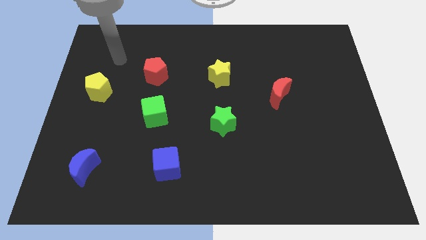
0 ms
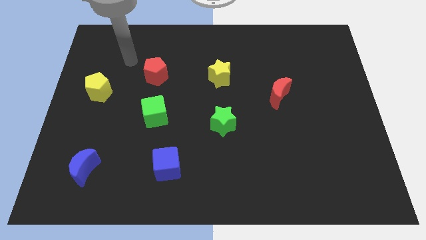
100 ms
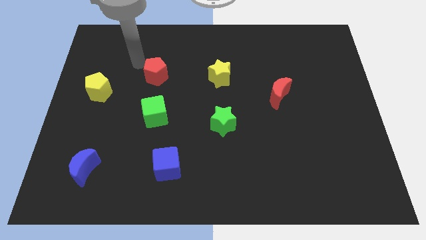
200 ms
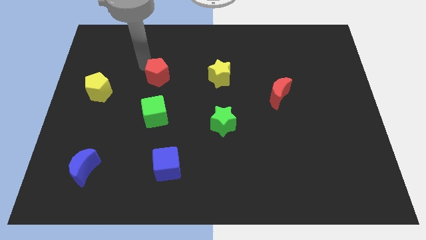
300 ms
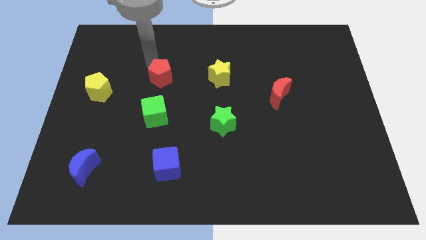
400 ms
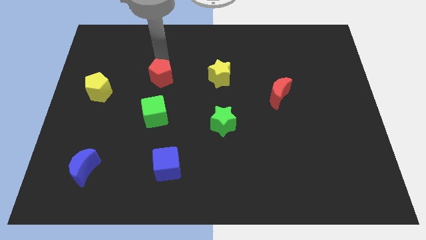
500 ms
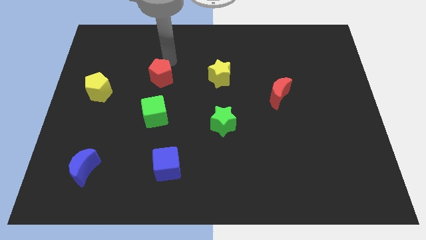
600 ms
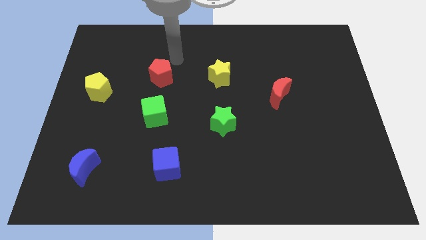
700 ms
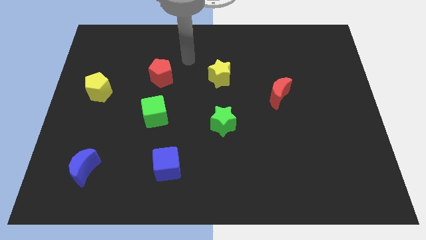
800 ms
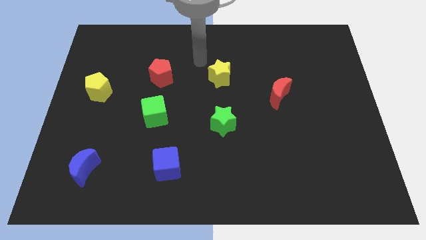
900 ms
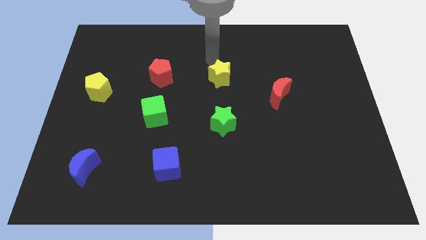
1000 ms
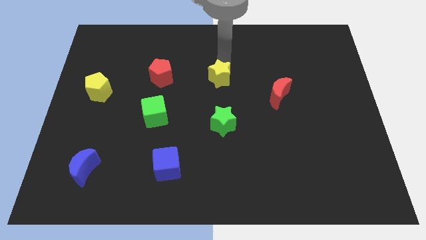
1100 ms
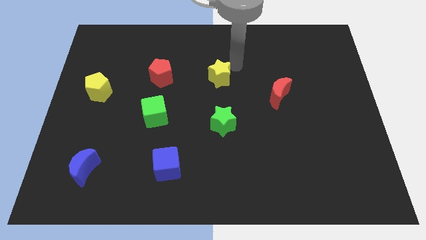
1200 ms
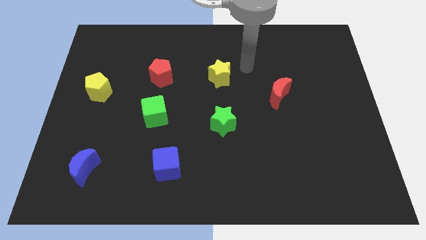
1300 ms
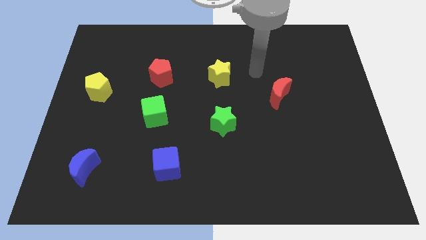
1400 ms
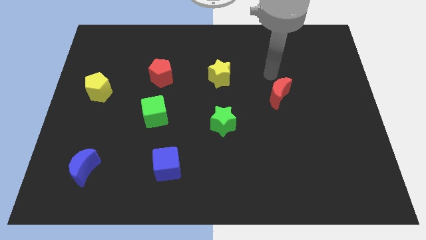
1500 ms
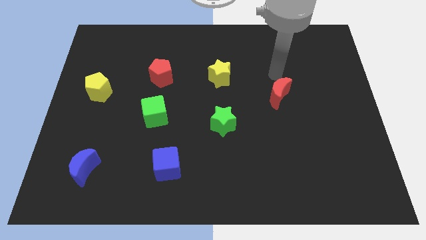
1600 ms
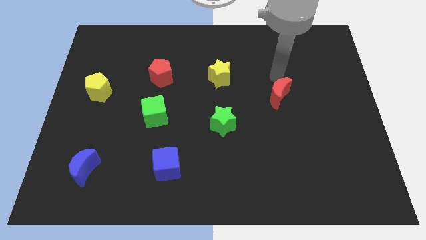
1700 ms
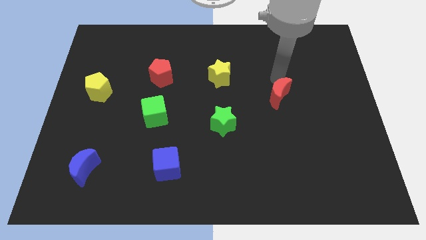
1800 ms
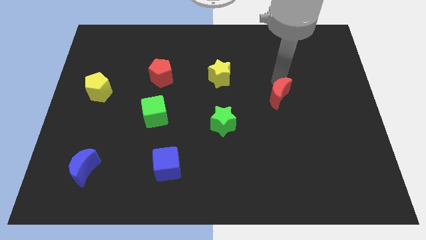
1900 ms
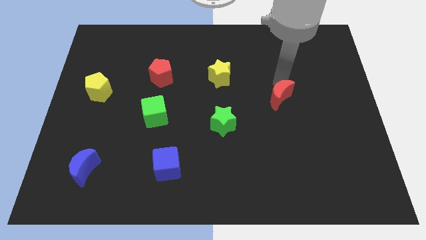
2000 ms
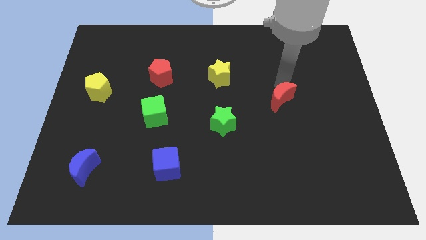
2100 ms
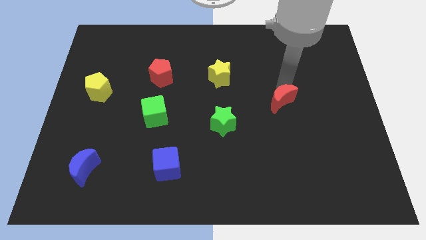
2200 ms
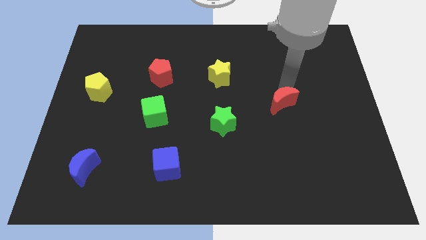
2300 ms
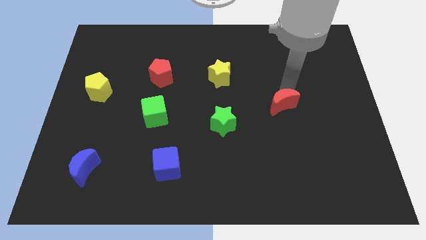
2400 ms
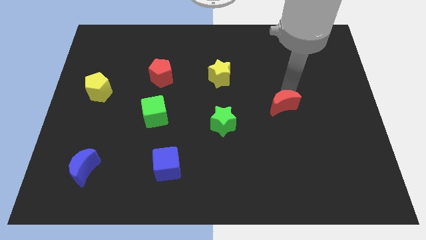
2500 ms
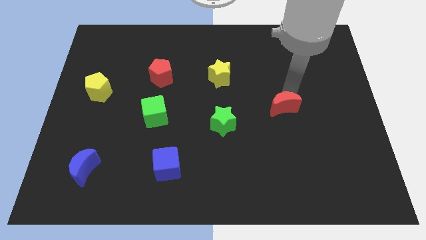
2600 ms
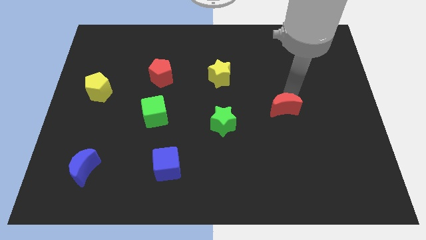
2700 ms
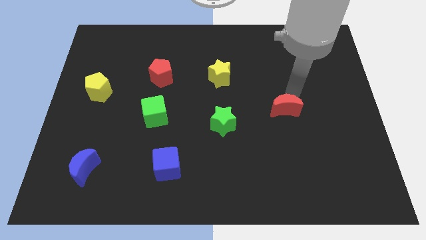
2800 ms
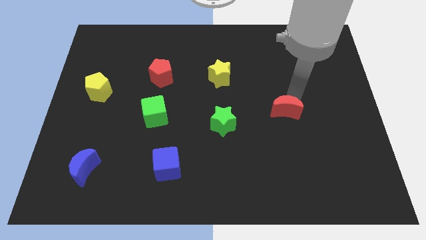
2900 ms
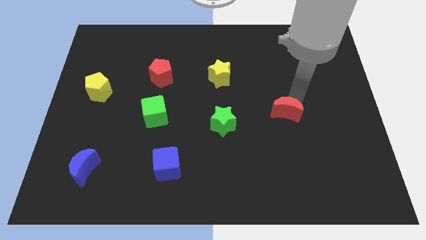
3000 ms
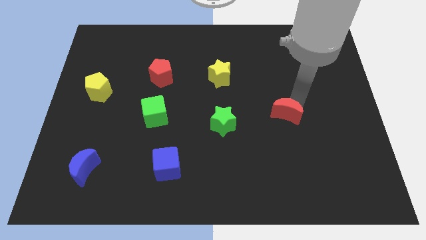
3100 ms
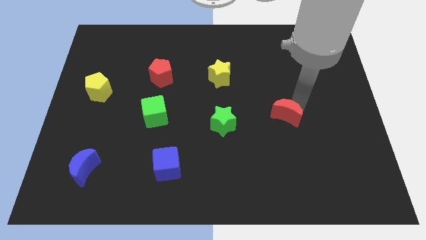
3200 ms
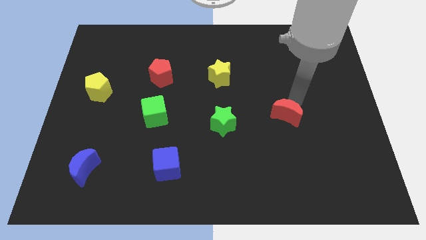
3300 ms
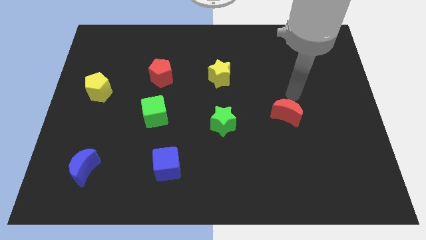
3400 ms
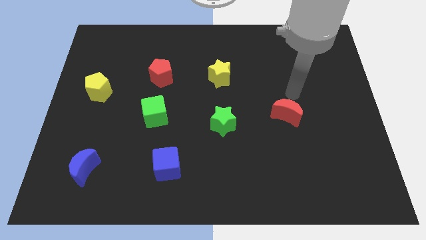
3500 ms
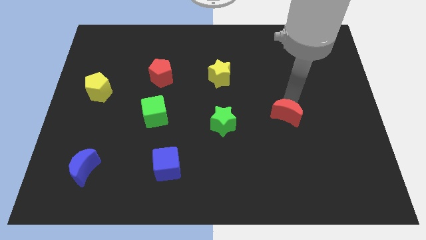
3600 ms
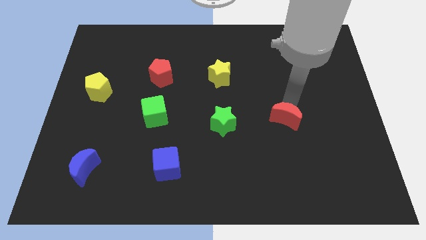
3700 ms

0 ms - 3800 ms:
move the red moon somewhat down

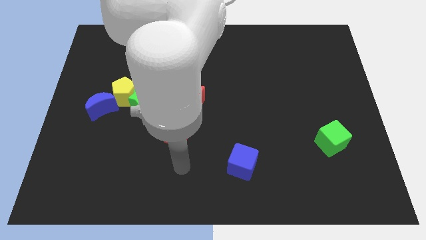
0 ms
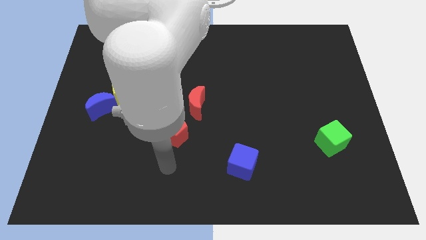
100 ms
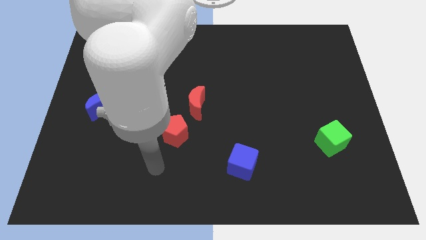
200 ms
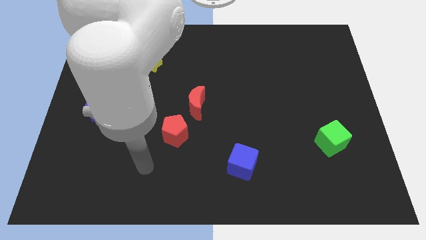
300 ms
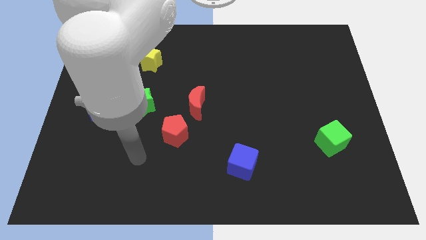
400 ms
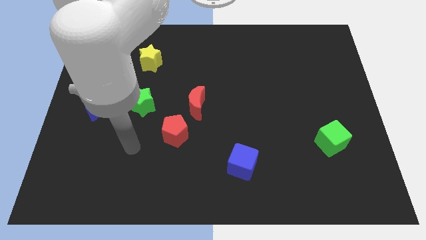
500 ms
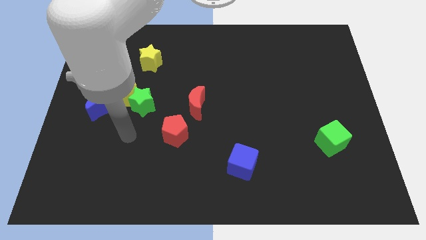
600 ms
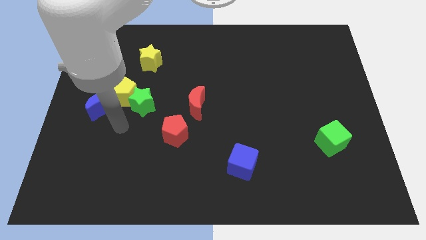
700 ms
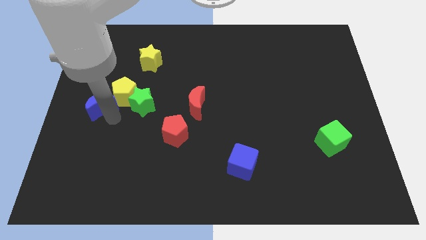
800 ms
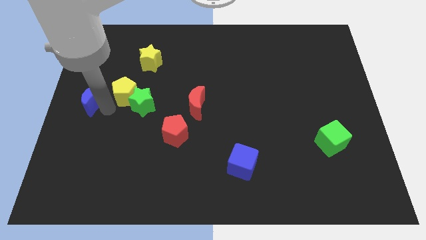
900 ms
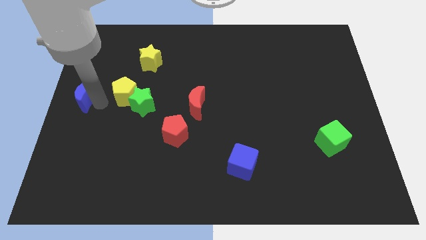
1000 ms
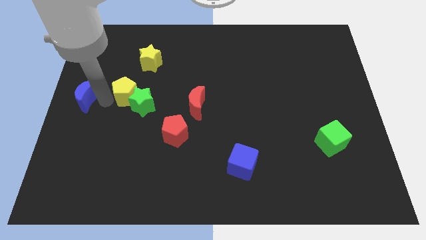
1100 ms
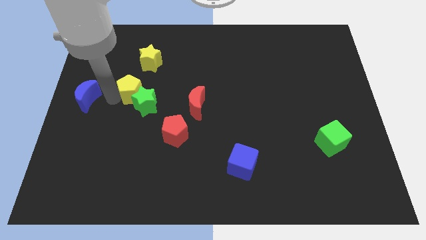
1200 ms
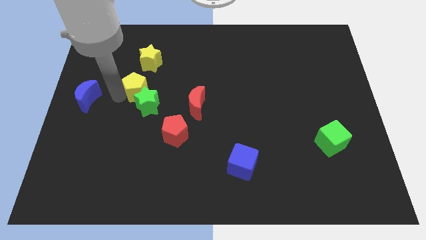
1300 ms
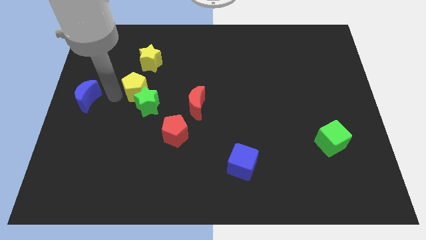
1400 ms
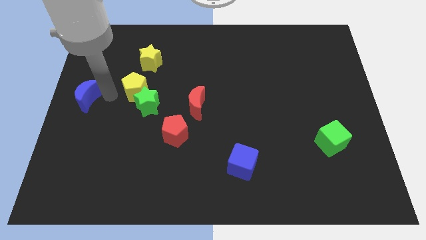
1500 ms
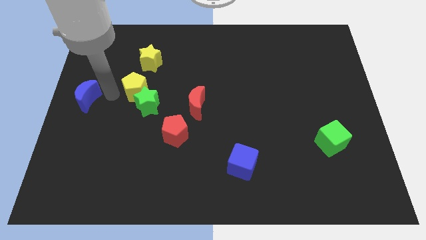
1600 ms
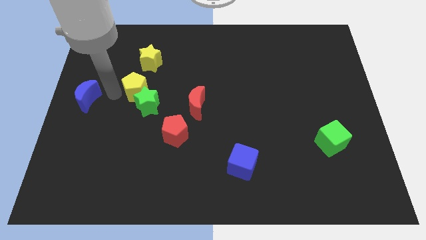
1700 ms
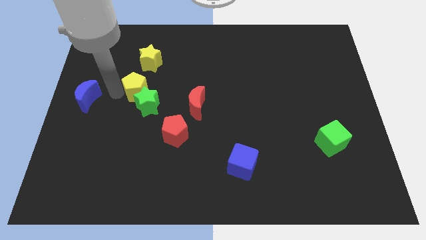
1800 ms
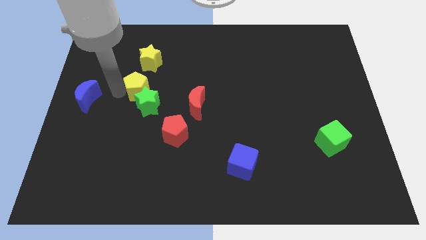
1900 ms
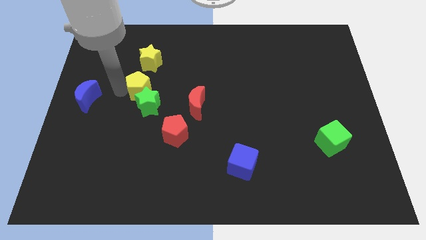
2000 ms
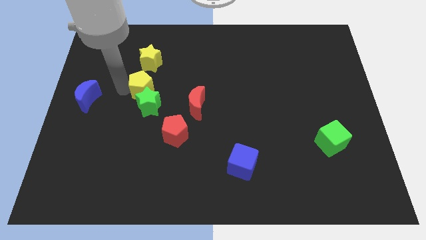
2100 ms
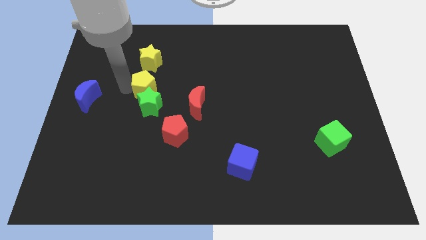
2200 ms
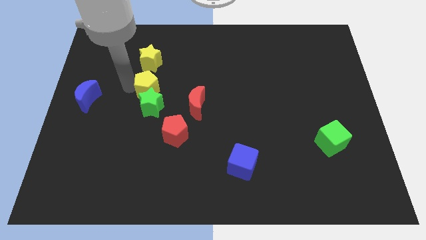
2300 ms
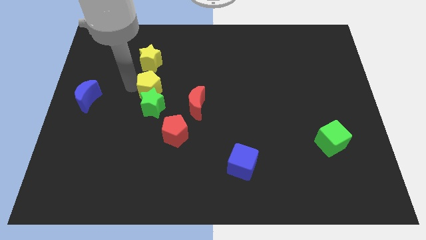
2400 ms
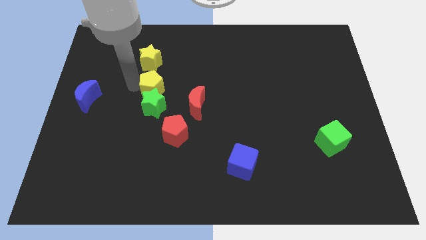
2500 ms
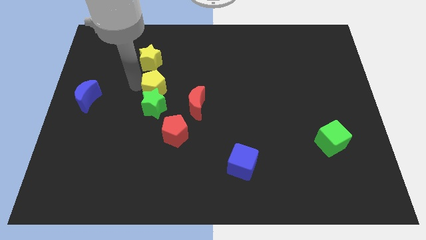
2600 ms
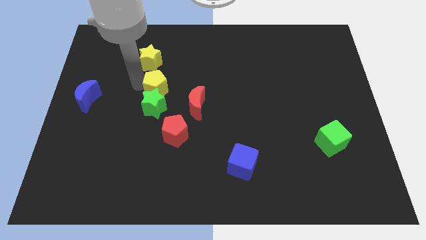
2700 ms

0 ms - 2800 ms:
push the yellow pentagon a little right

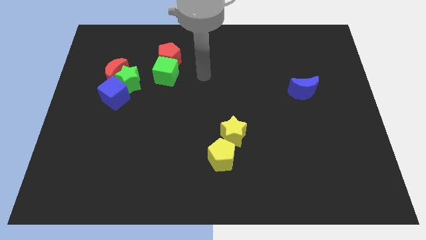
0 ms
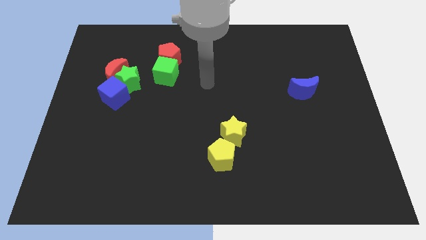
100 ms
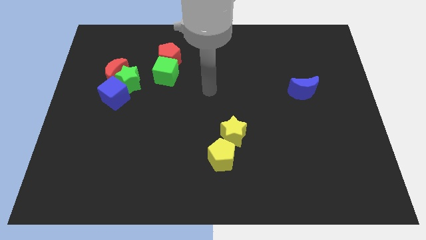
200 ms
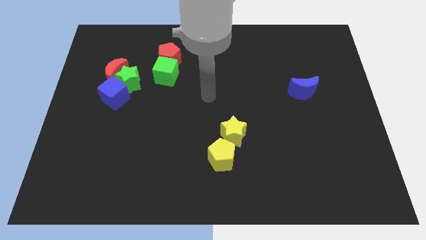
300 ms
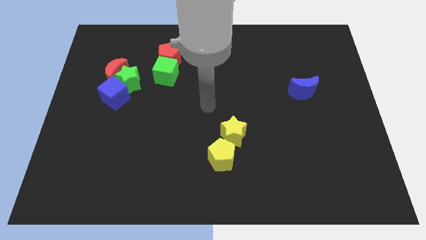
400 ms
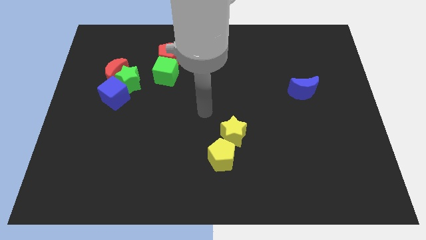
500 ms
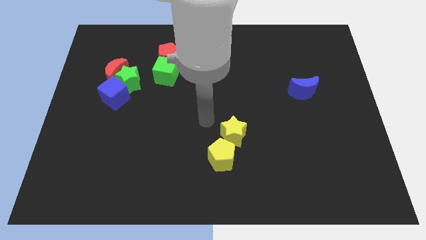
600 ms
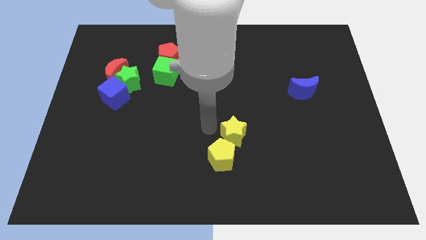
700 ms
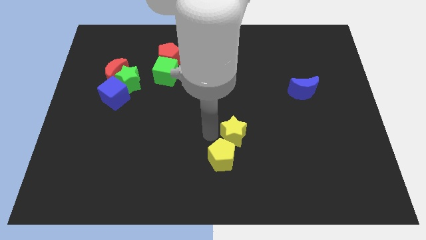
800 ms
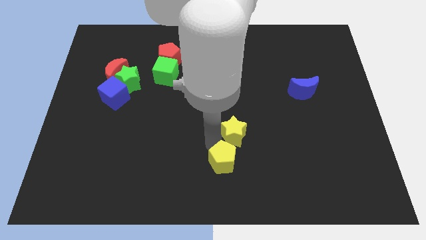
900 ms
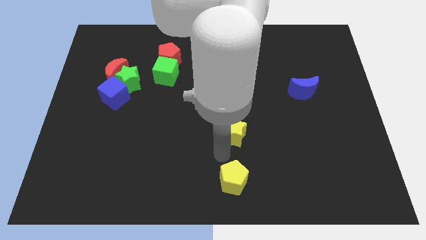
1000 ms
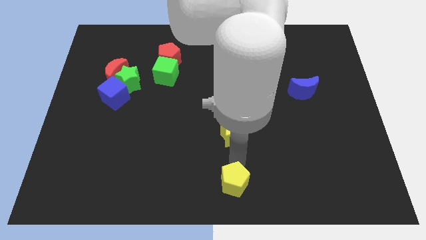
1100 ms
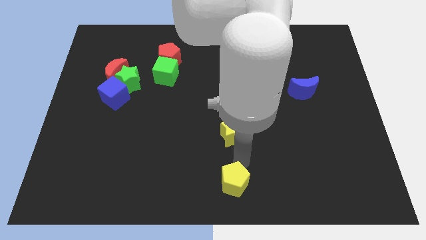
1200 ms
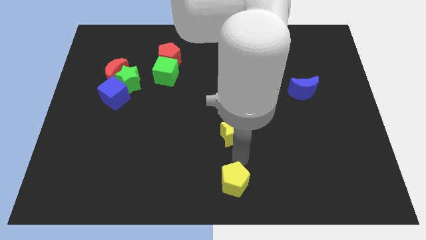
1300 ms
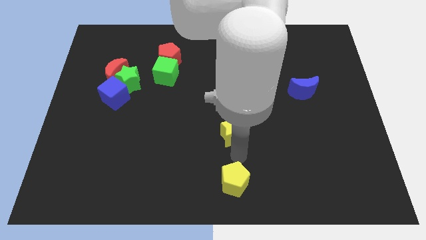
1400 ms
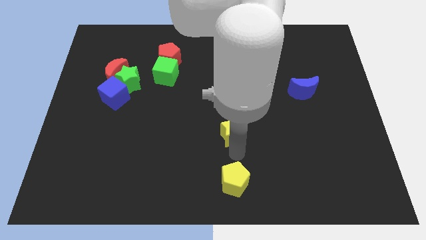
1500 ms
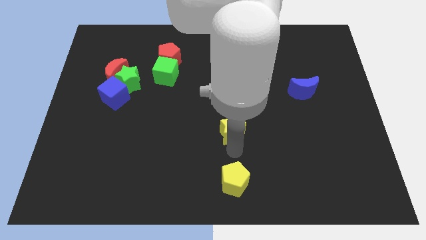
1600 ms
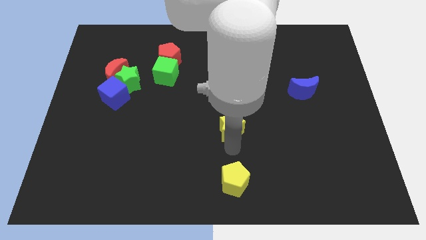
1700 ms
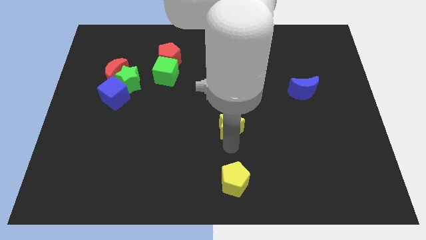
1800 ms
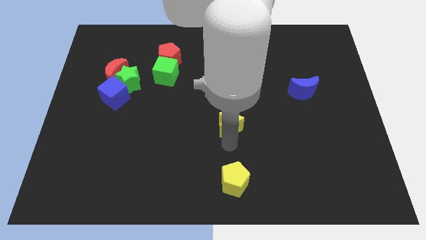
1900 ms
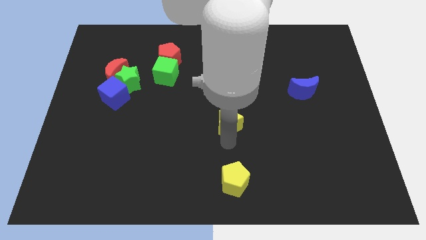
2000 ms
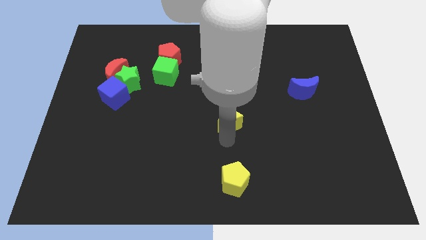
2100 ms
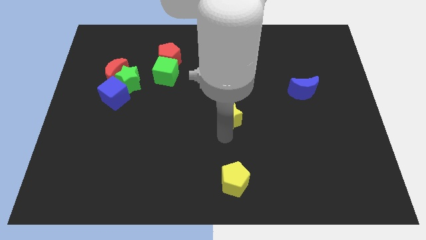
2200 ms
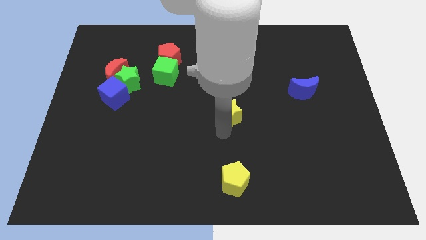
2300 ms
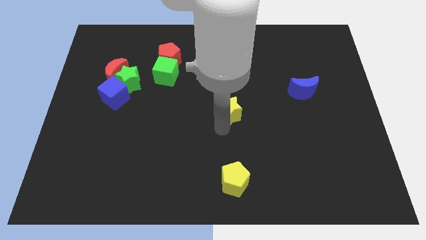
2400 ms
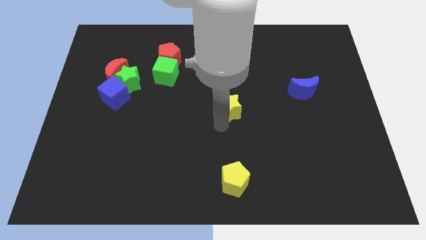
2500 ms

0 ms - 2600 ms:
move the yellow star slightly up
